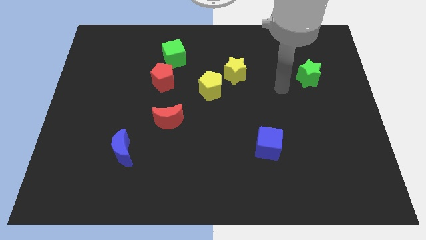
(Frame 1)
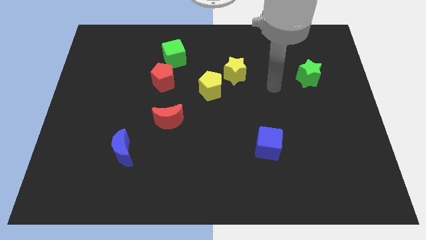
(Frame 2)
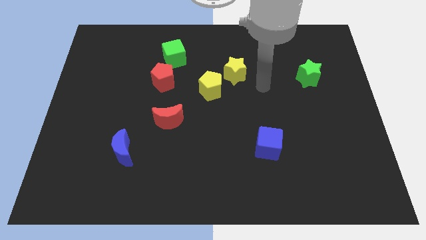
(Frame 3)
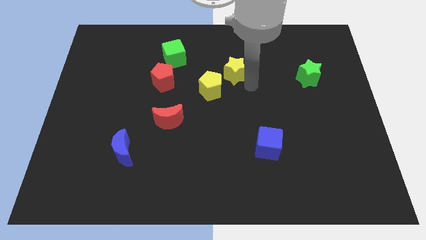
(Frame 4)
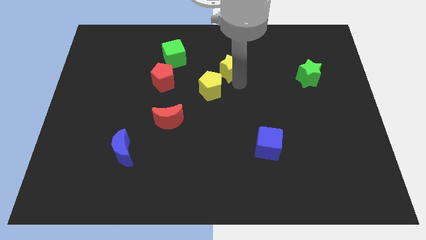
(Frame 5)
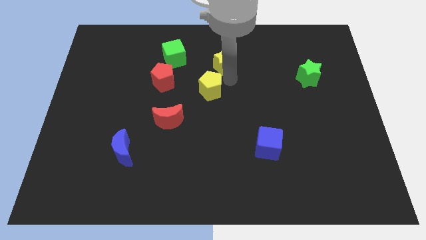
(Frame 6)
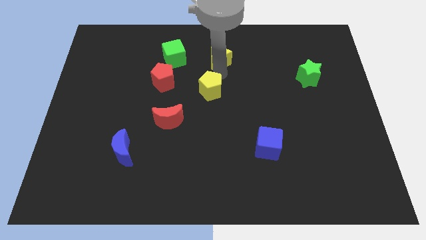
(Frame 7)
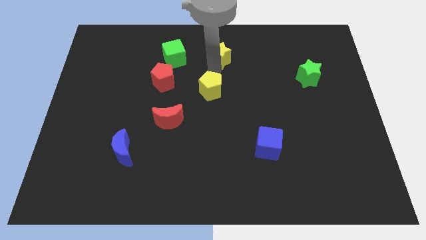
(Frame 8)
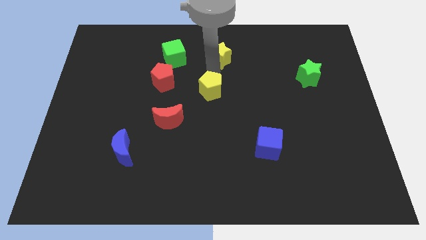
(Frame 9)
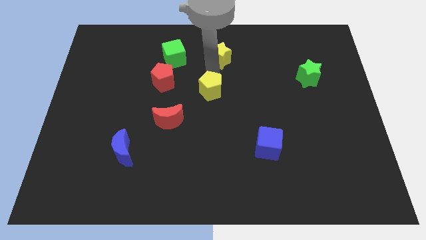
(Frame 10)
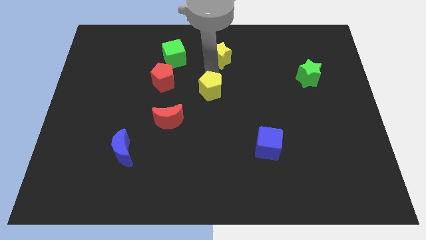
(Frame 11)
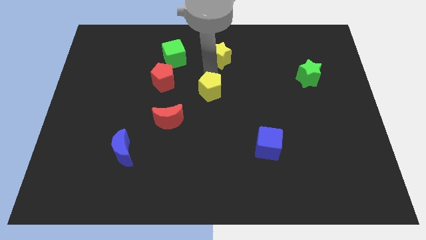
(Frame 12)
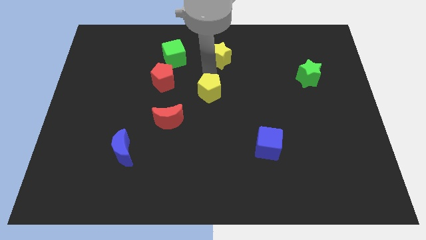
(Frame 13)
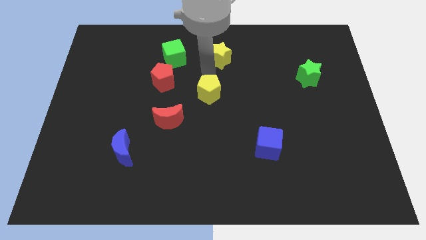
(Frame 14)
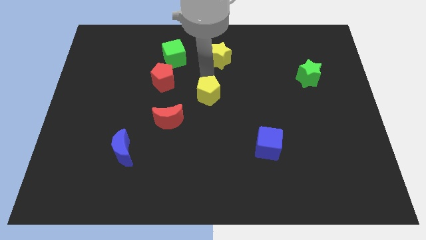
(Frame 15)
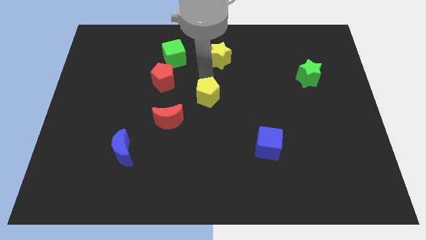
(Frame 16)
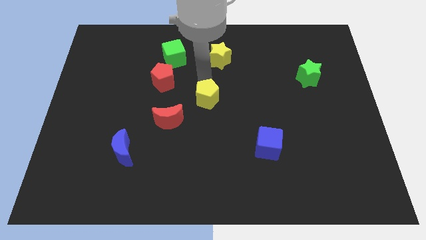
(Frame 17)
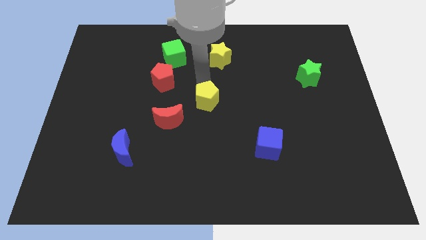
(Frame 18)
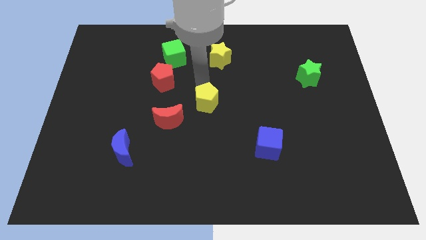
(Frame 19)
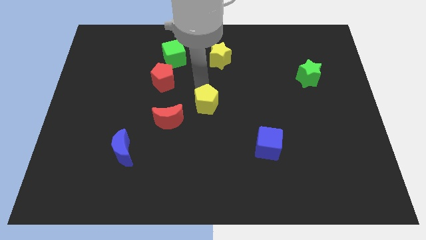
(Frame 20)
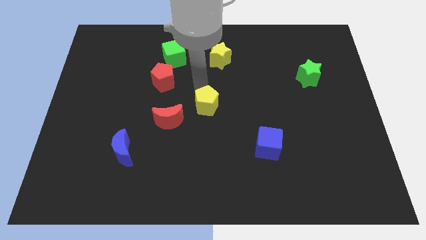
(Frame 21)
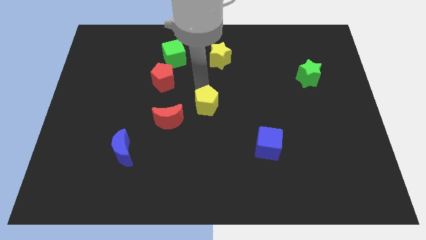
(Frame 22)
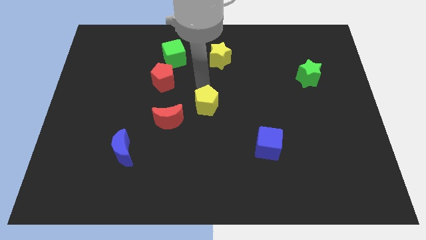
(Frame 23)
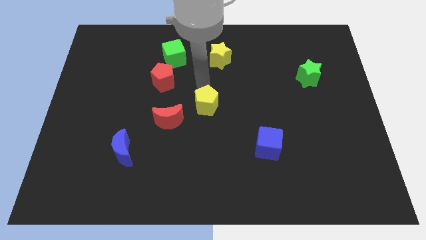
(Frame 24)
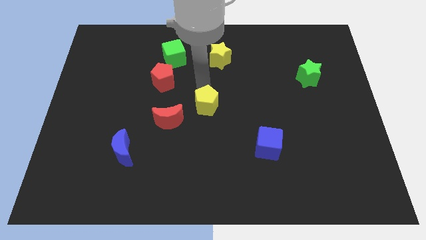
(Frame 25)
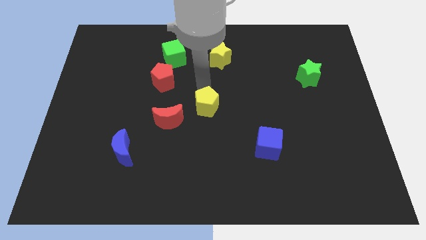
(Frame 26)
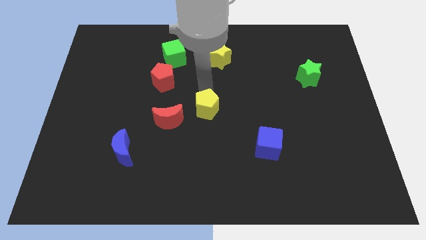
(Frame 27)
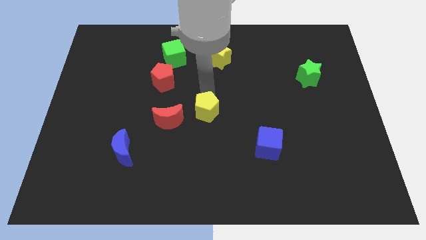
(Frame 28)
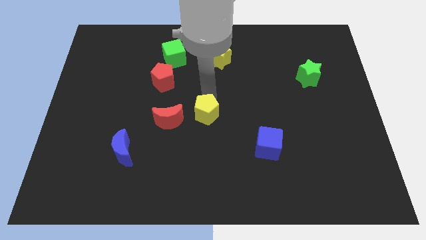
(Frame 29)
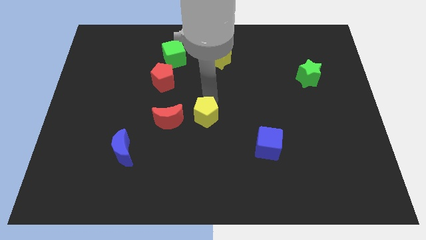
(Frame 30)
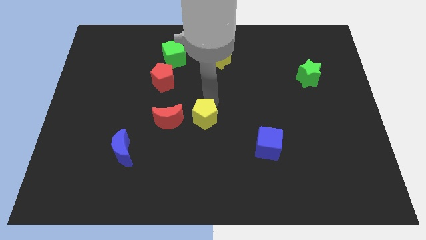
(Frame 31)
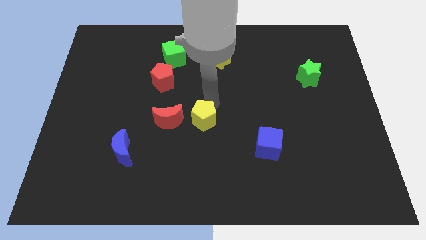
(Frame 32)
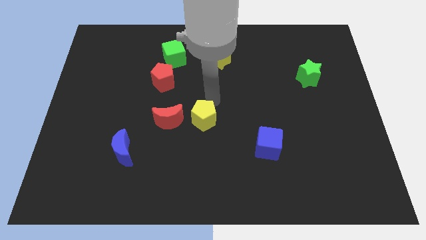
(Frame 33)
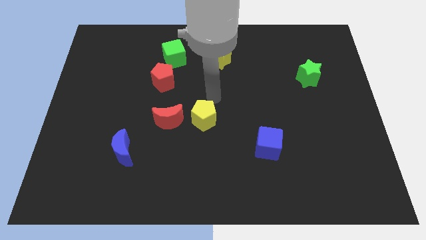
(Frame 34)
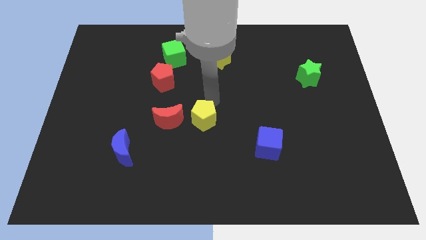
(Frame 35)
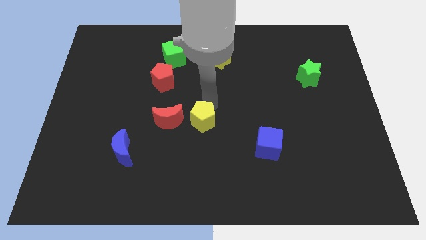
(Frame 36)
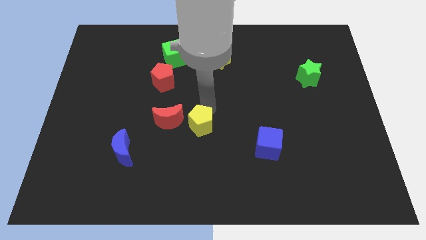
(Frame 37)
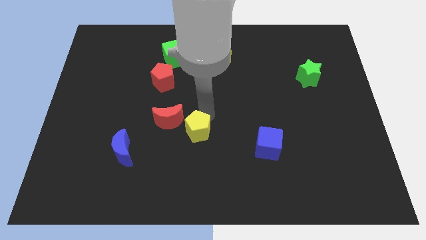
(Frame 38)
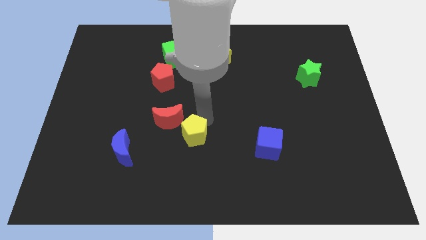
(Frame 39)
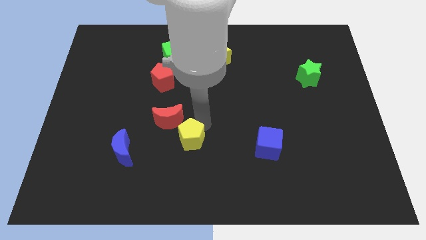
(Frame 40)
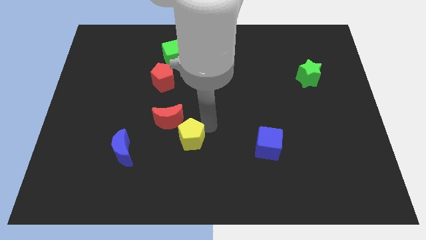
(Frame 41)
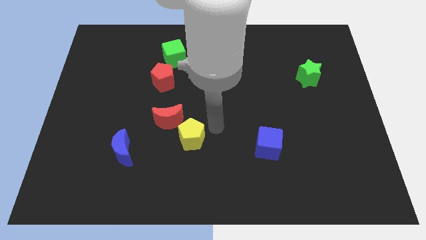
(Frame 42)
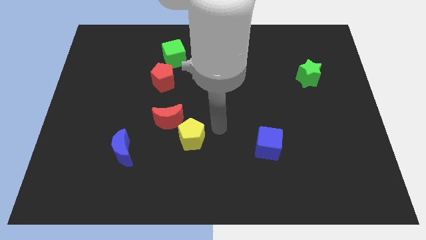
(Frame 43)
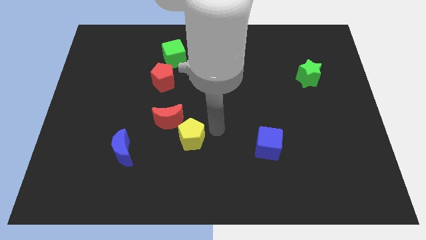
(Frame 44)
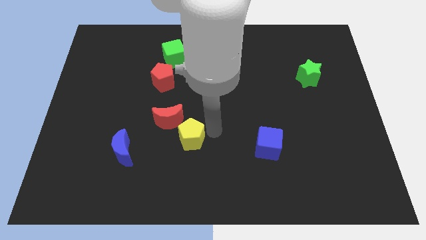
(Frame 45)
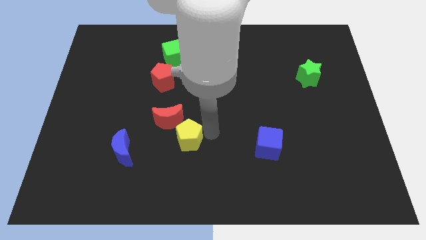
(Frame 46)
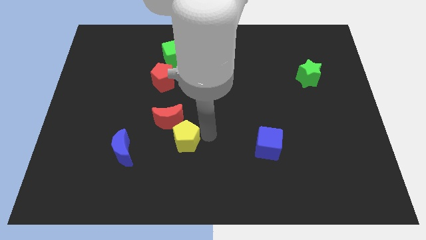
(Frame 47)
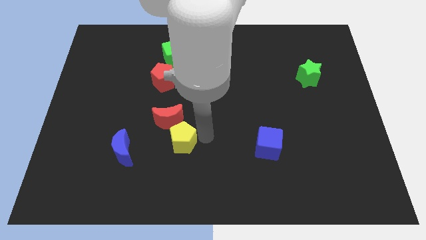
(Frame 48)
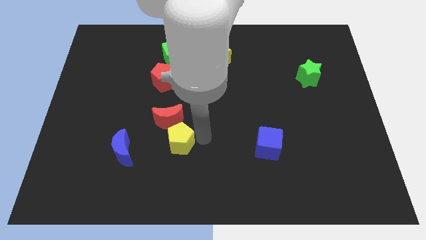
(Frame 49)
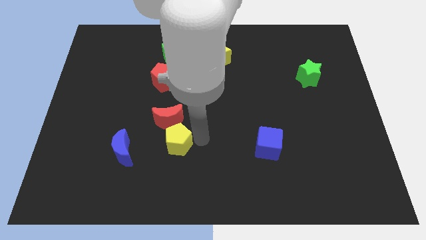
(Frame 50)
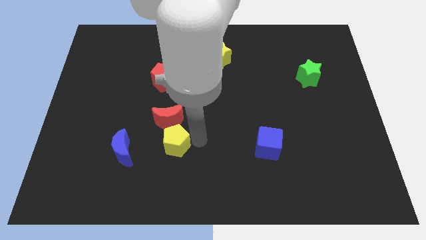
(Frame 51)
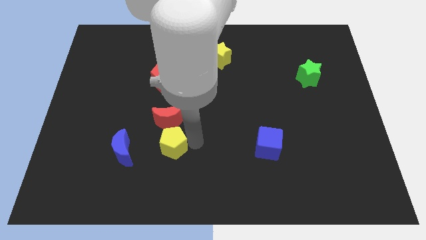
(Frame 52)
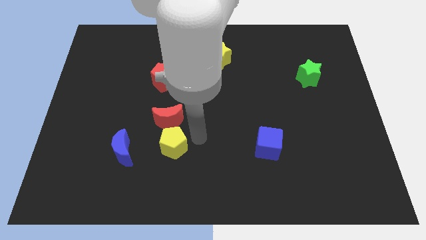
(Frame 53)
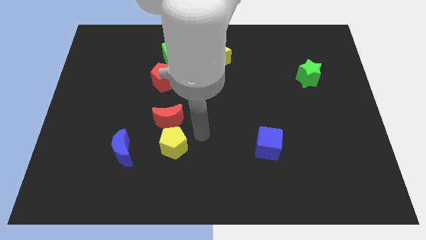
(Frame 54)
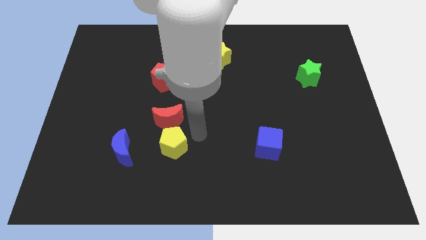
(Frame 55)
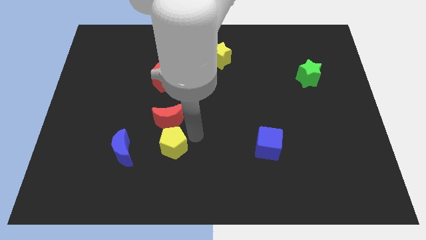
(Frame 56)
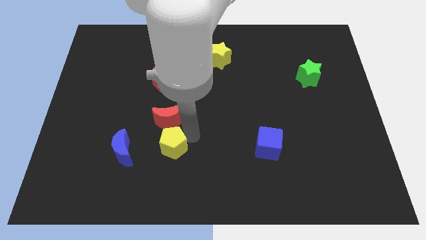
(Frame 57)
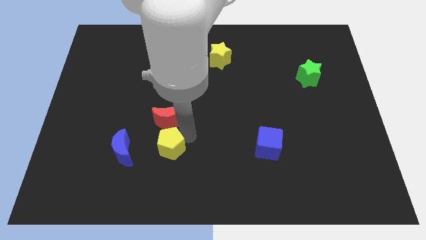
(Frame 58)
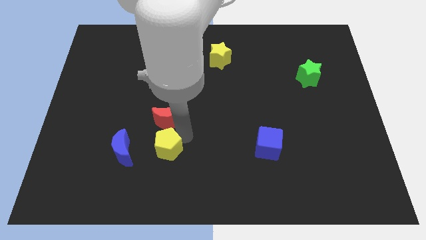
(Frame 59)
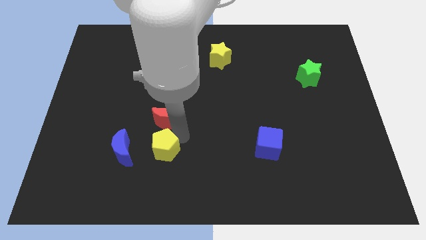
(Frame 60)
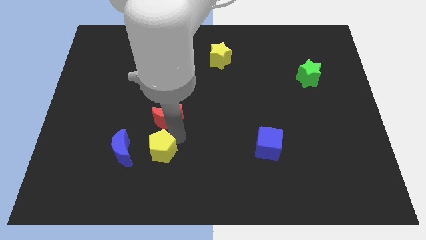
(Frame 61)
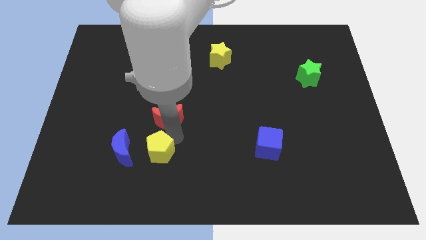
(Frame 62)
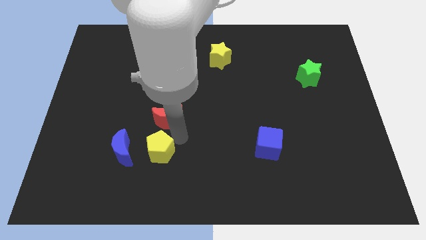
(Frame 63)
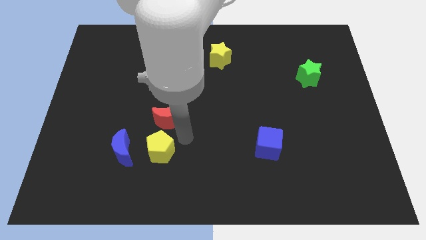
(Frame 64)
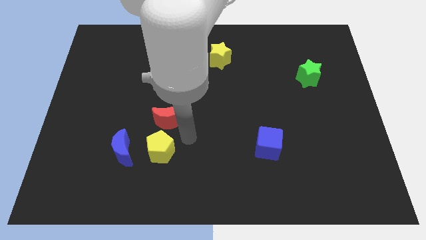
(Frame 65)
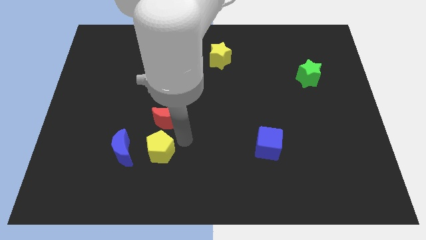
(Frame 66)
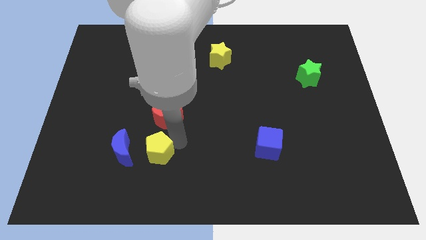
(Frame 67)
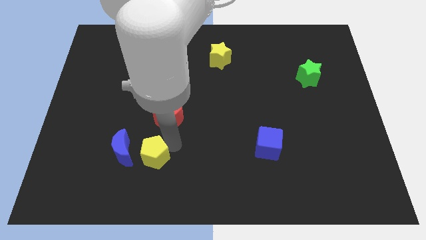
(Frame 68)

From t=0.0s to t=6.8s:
move the yellow pentagon downwards and left

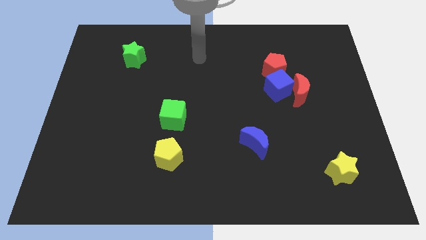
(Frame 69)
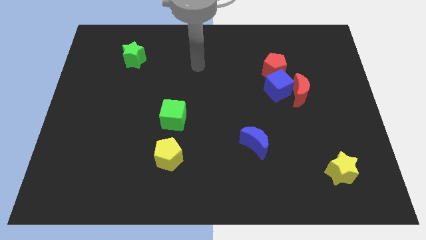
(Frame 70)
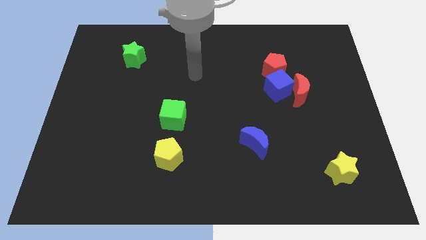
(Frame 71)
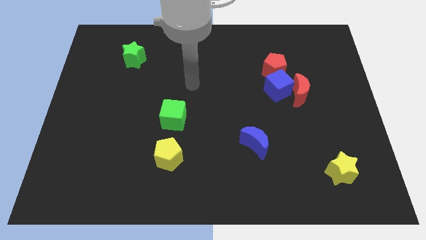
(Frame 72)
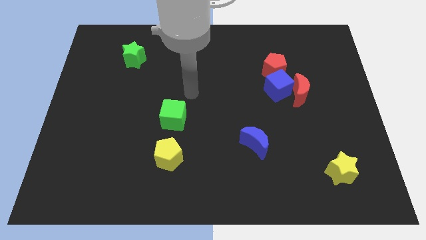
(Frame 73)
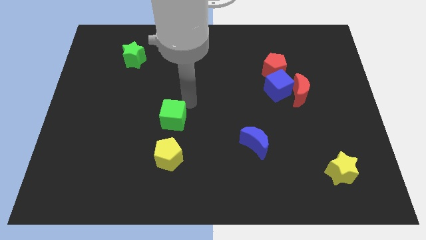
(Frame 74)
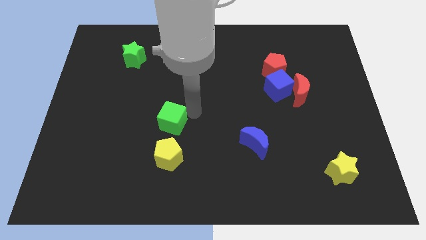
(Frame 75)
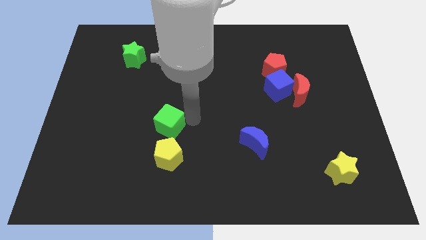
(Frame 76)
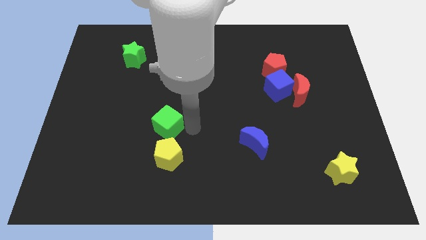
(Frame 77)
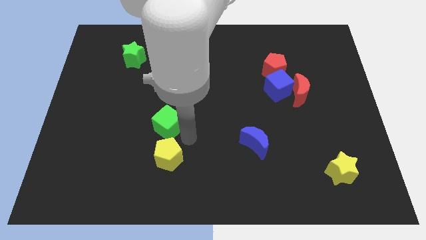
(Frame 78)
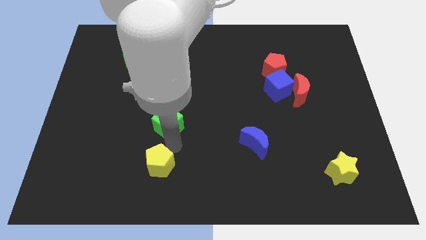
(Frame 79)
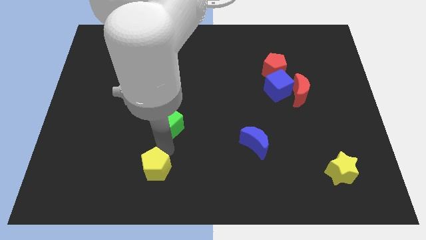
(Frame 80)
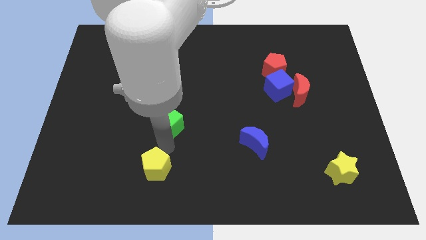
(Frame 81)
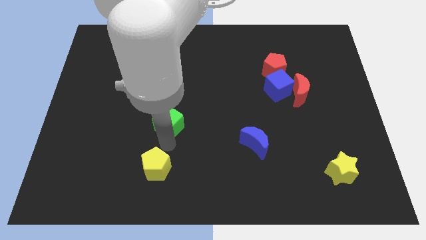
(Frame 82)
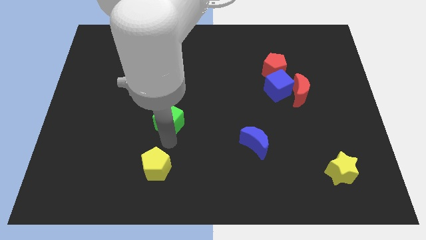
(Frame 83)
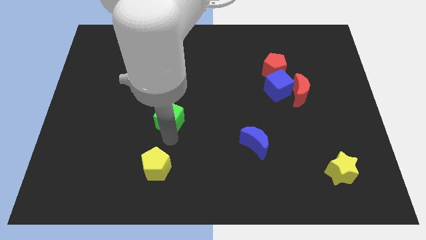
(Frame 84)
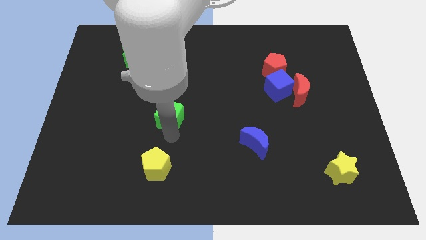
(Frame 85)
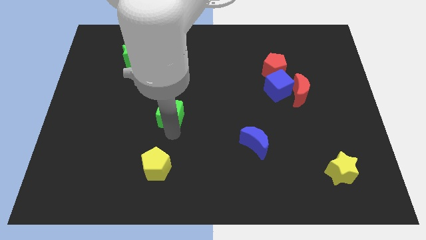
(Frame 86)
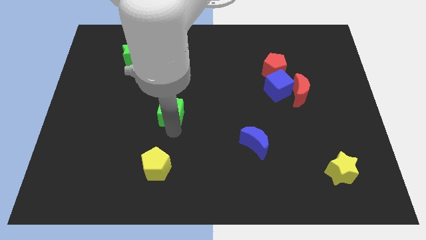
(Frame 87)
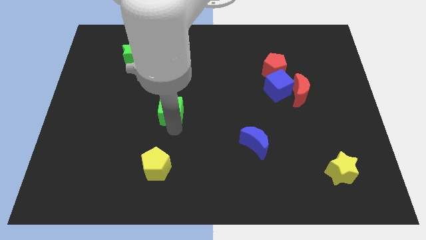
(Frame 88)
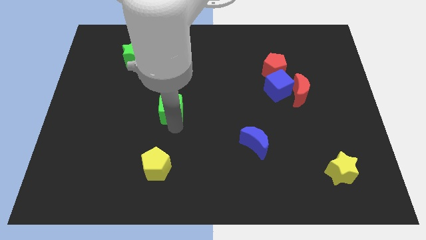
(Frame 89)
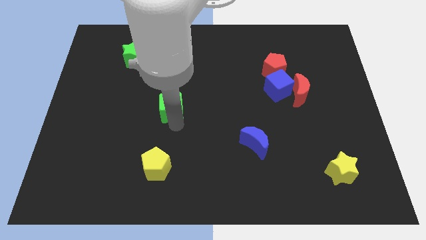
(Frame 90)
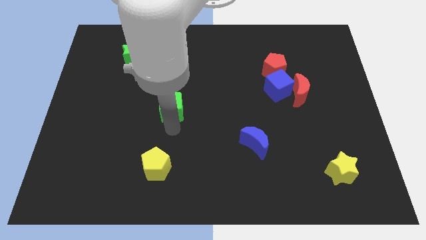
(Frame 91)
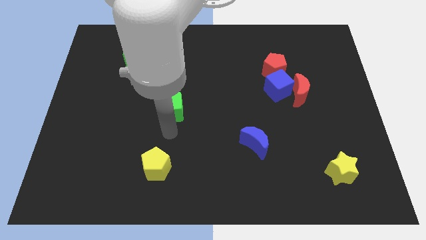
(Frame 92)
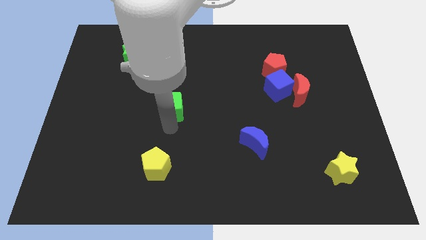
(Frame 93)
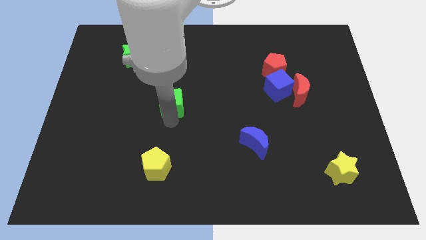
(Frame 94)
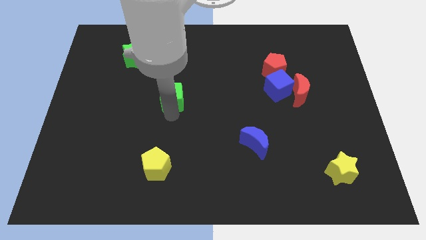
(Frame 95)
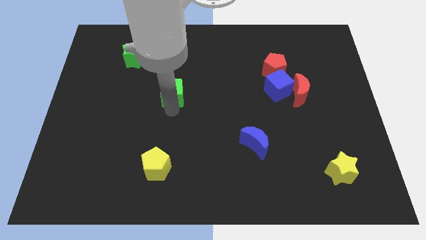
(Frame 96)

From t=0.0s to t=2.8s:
push the green cube slightly upwards
